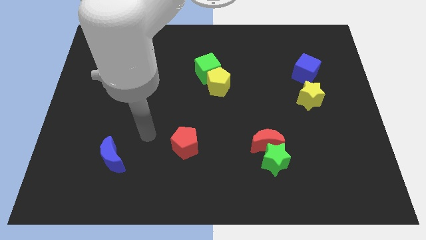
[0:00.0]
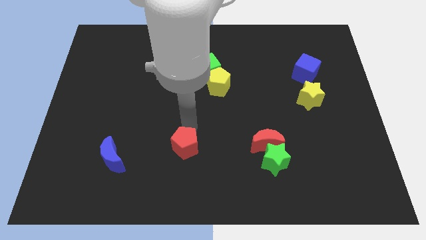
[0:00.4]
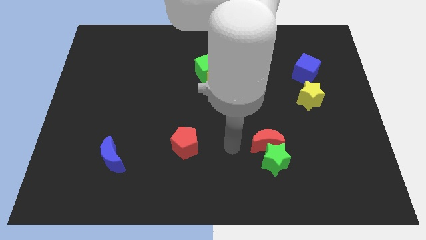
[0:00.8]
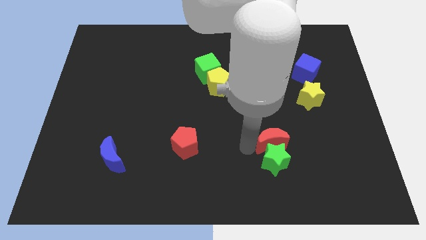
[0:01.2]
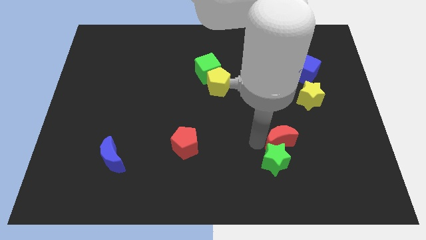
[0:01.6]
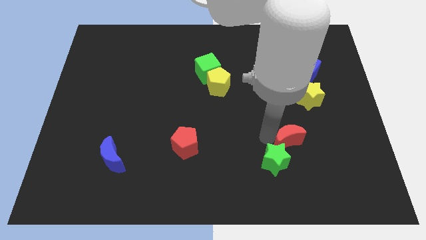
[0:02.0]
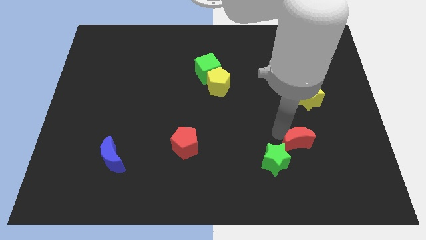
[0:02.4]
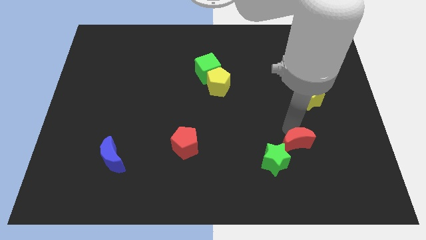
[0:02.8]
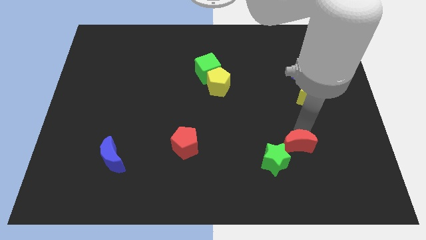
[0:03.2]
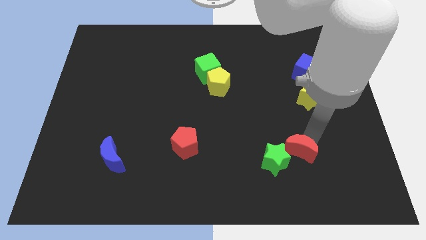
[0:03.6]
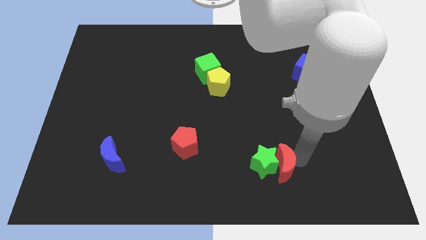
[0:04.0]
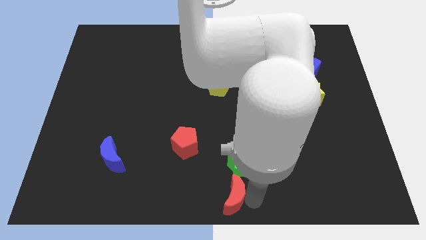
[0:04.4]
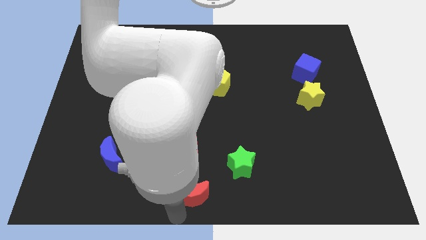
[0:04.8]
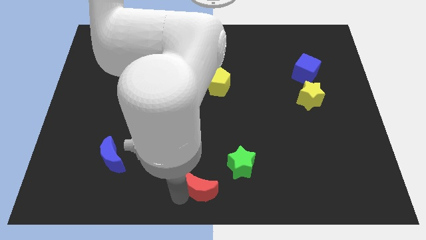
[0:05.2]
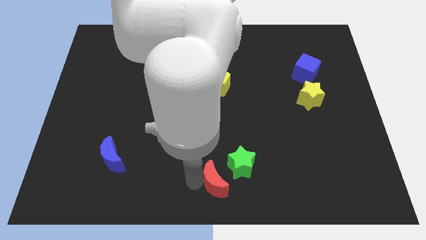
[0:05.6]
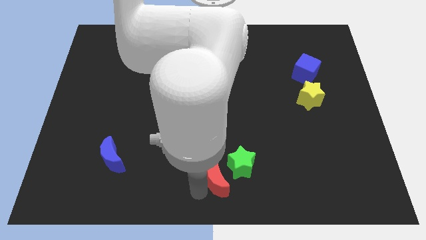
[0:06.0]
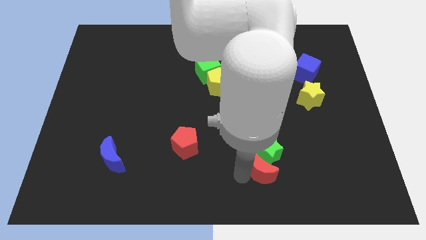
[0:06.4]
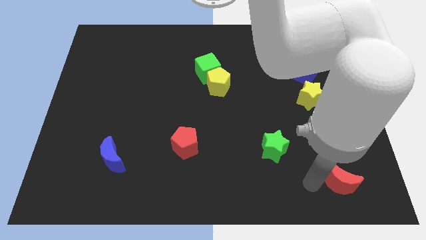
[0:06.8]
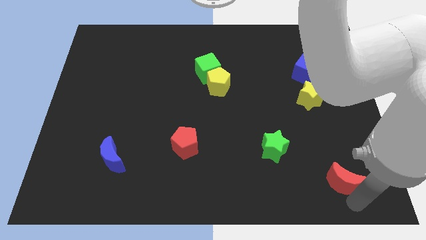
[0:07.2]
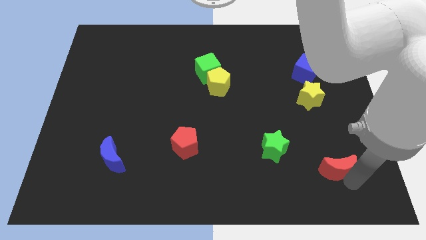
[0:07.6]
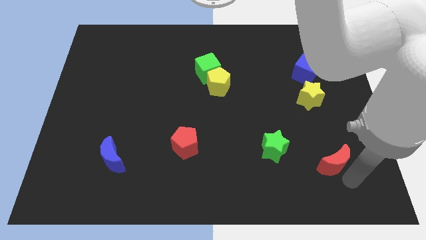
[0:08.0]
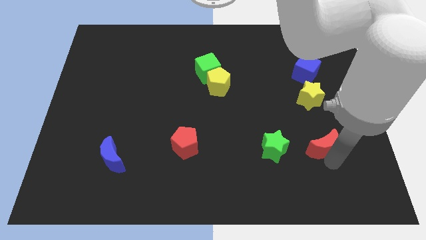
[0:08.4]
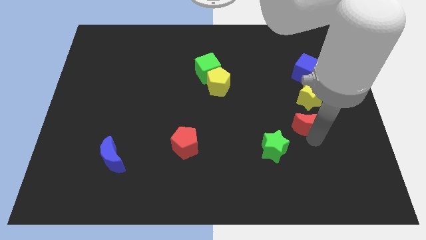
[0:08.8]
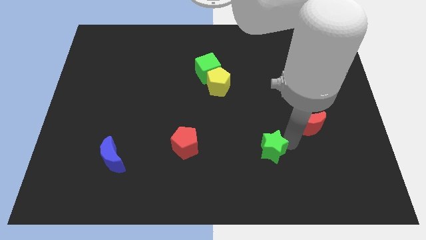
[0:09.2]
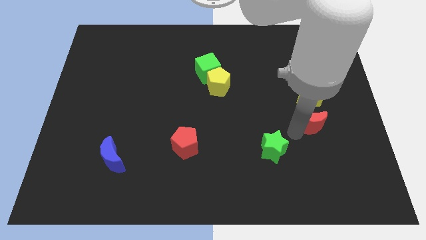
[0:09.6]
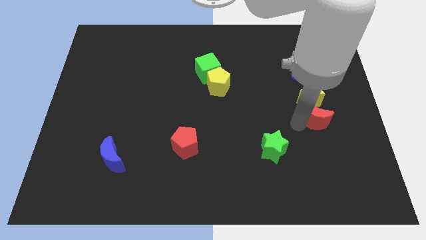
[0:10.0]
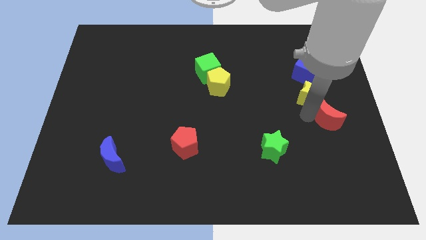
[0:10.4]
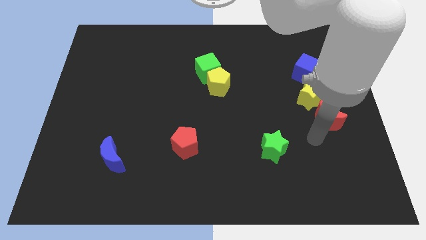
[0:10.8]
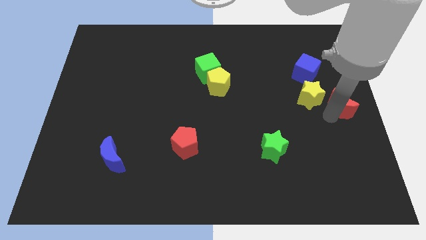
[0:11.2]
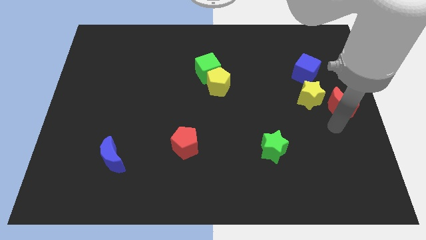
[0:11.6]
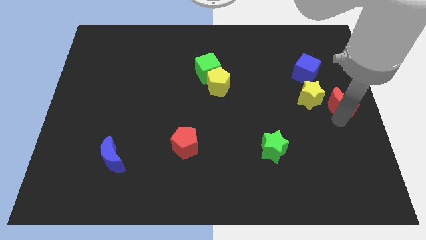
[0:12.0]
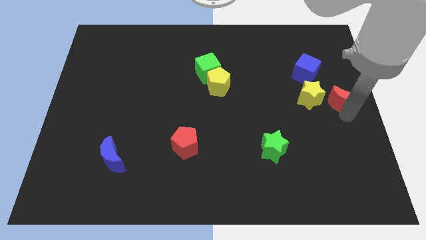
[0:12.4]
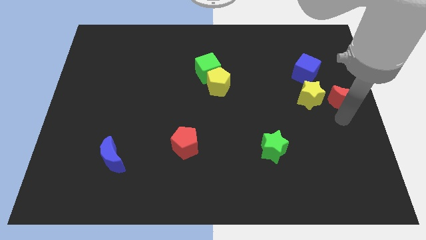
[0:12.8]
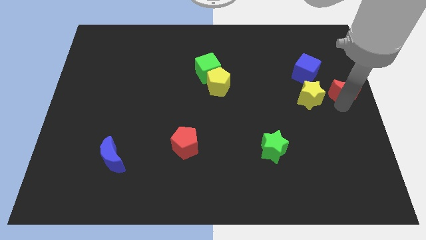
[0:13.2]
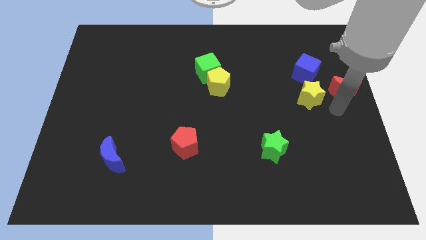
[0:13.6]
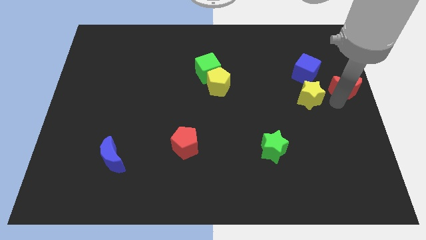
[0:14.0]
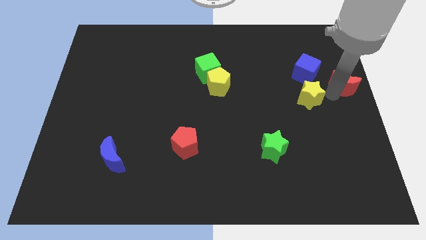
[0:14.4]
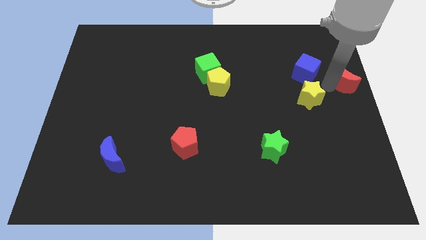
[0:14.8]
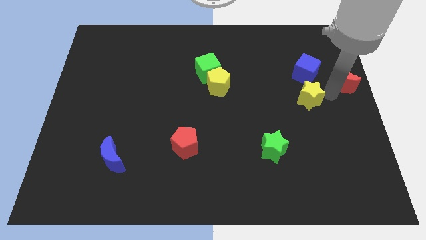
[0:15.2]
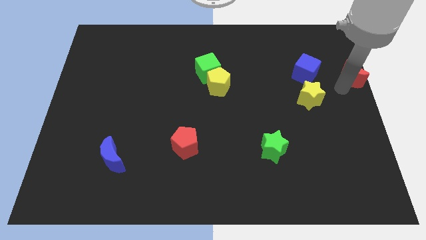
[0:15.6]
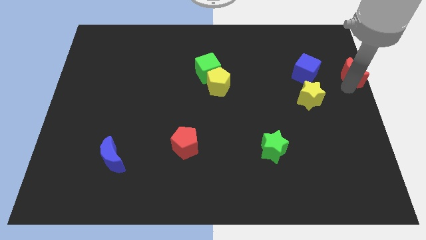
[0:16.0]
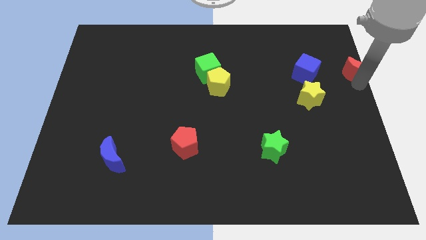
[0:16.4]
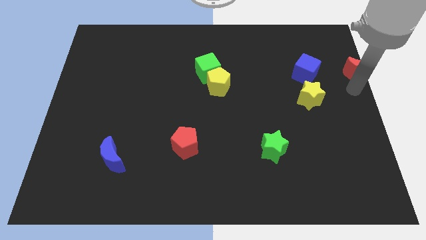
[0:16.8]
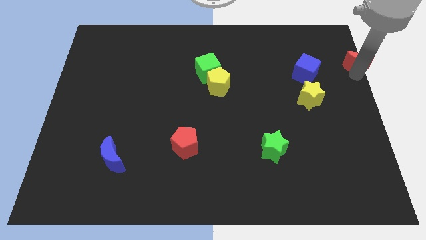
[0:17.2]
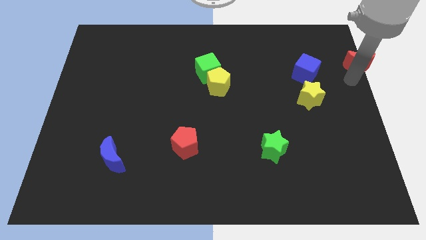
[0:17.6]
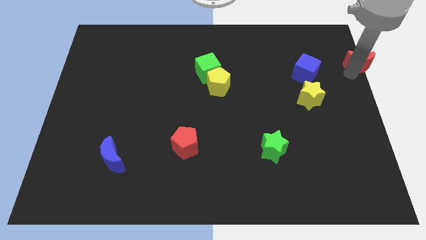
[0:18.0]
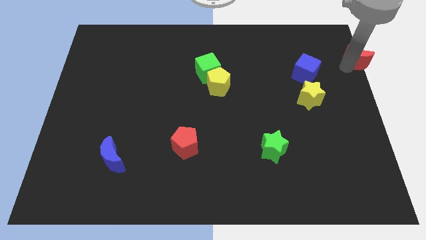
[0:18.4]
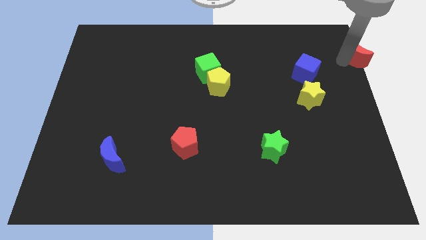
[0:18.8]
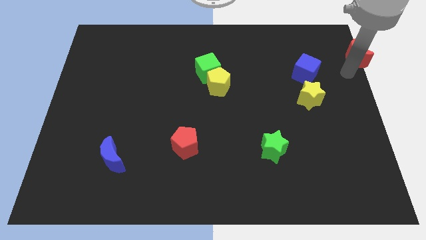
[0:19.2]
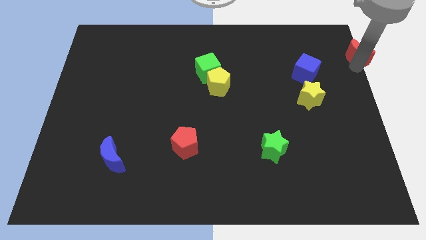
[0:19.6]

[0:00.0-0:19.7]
slide the red moon to the upper right corner

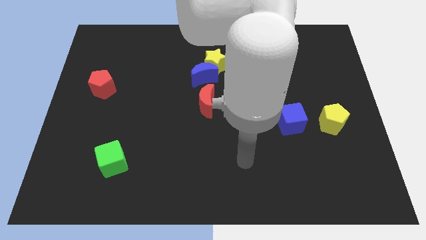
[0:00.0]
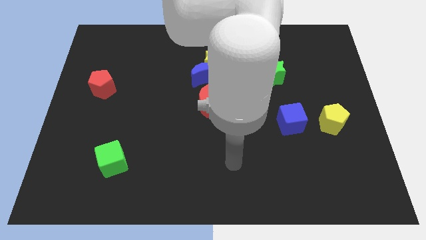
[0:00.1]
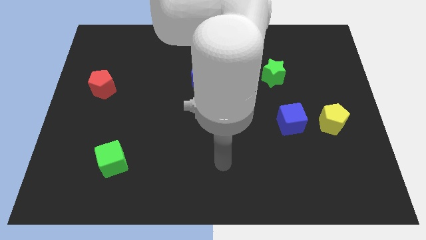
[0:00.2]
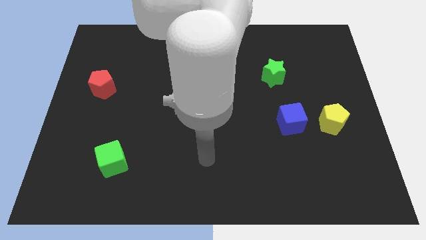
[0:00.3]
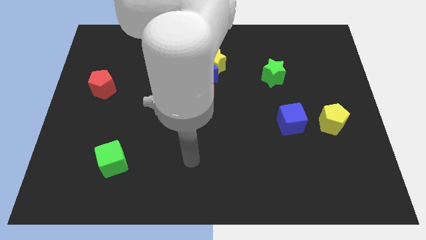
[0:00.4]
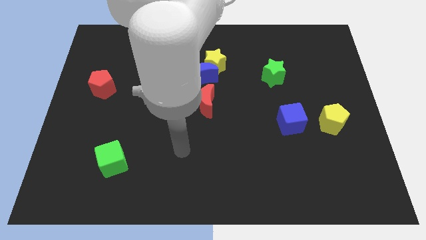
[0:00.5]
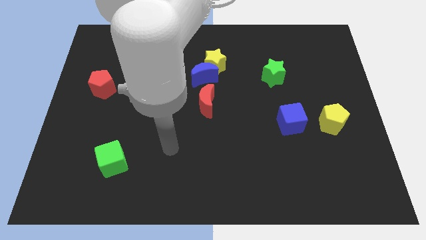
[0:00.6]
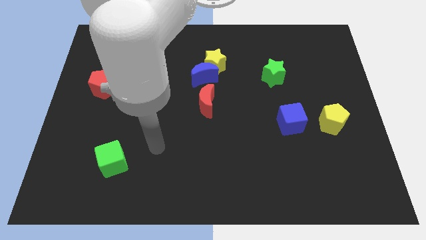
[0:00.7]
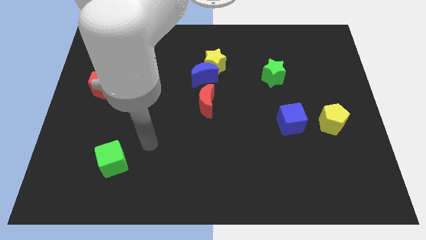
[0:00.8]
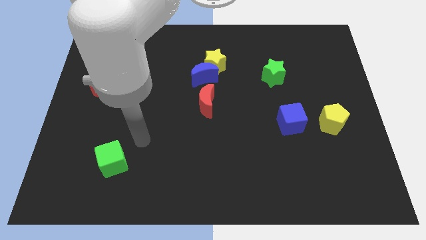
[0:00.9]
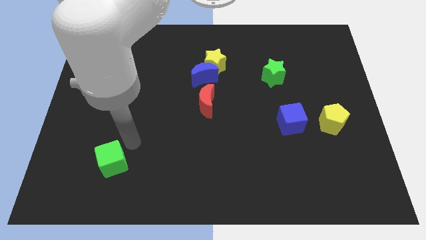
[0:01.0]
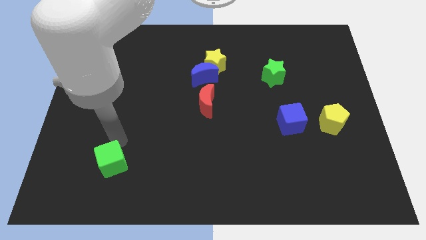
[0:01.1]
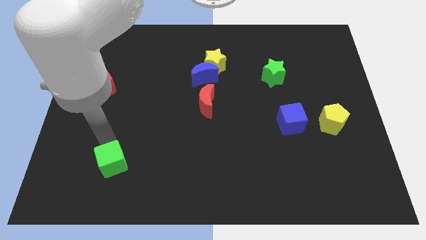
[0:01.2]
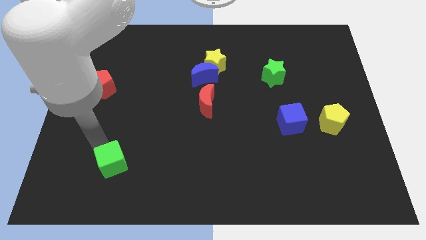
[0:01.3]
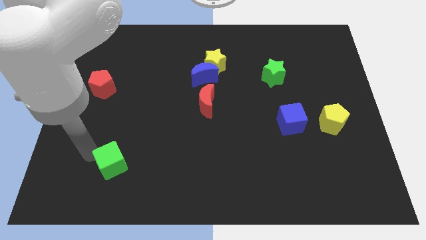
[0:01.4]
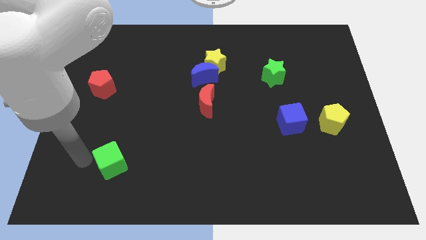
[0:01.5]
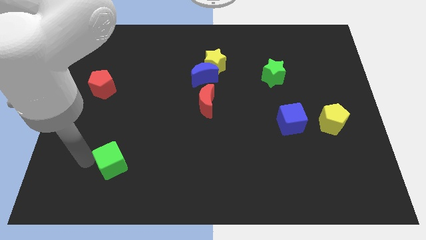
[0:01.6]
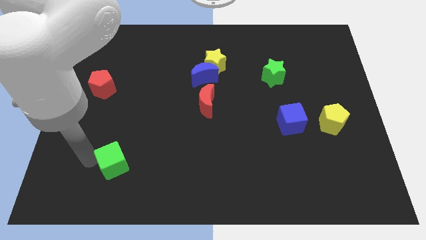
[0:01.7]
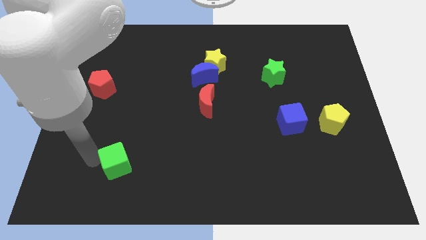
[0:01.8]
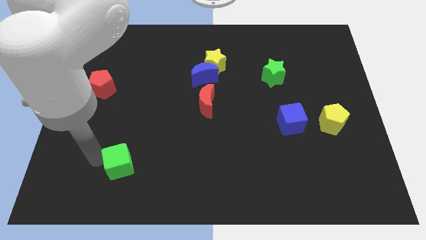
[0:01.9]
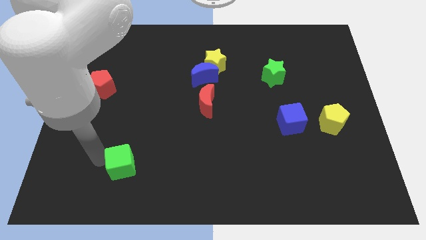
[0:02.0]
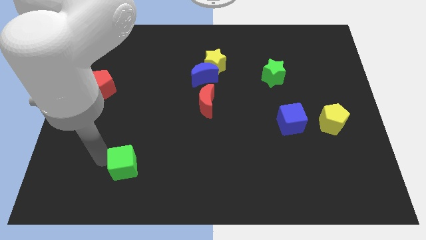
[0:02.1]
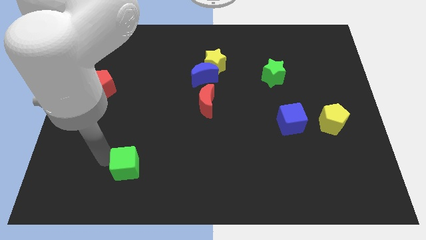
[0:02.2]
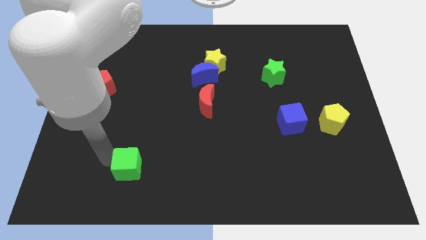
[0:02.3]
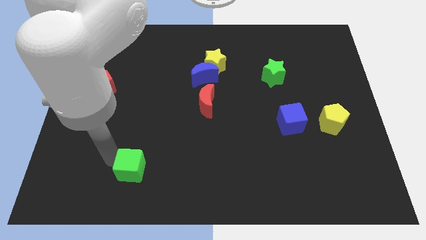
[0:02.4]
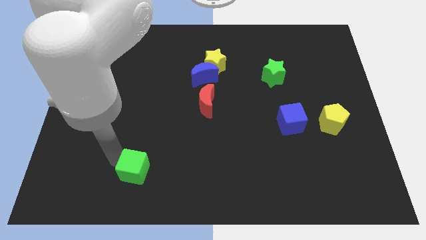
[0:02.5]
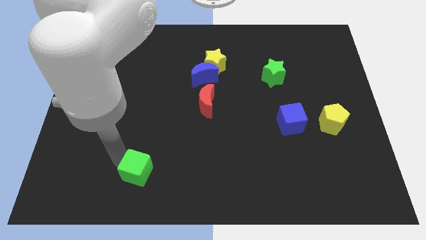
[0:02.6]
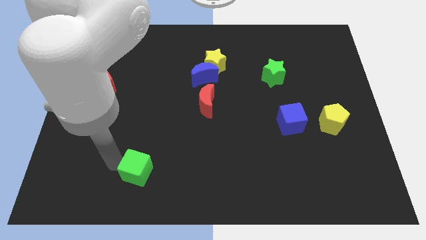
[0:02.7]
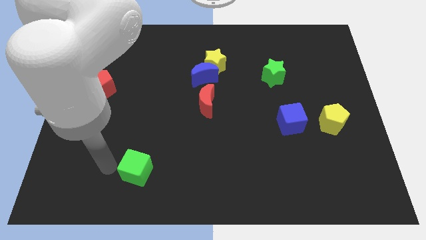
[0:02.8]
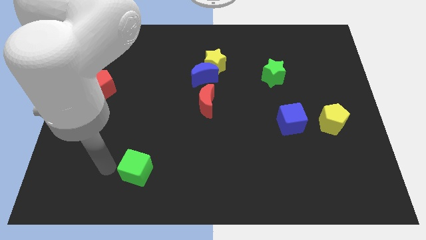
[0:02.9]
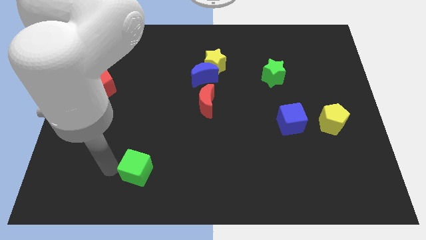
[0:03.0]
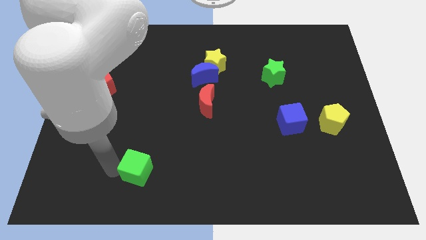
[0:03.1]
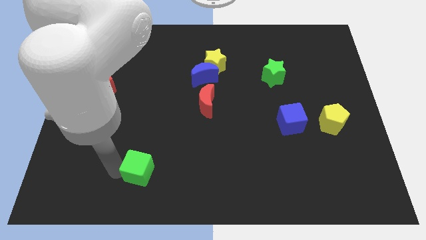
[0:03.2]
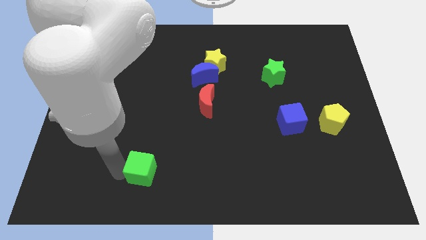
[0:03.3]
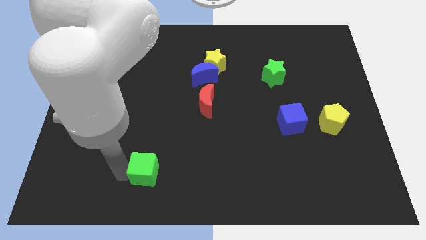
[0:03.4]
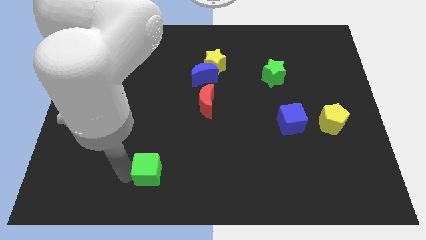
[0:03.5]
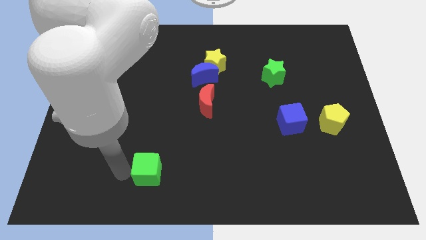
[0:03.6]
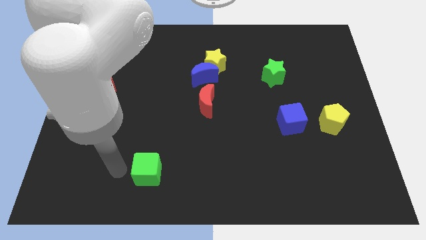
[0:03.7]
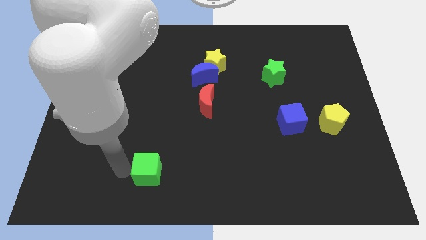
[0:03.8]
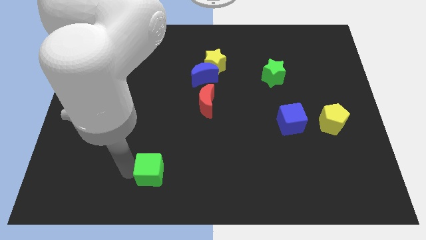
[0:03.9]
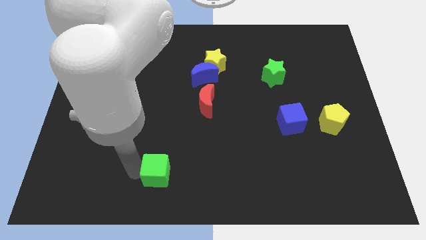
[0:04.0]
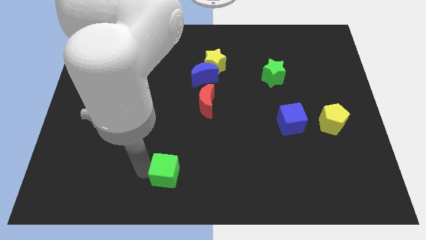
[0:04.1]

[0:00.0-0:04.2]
push the green cube to the bottom
